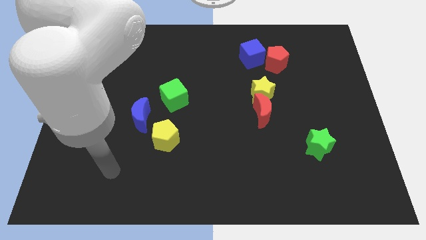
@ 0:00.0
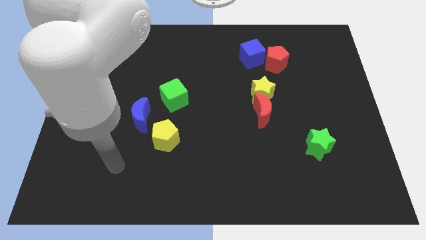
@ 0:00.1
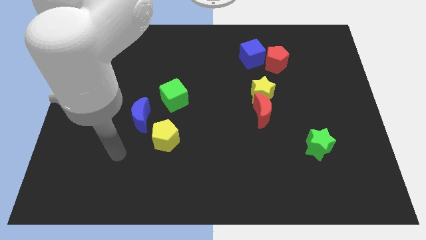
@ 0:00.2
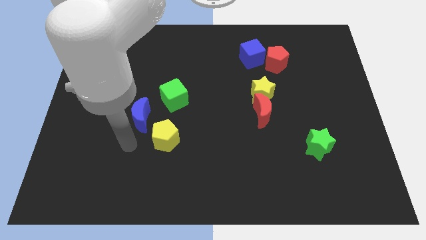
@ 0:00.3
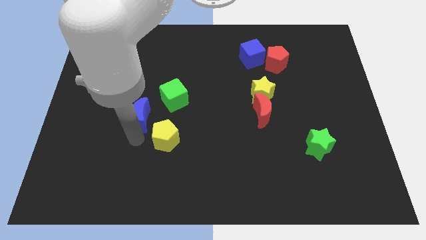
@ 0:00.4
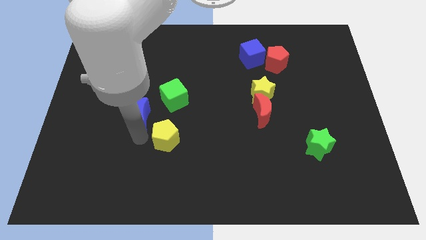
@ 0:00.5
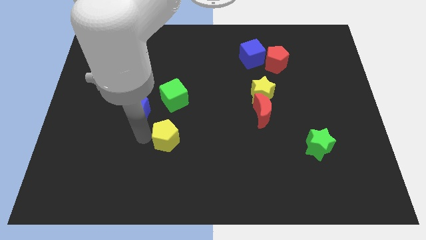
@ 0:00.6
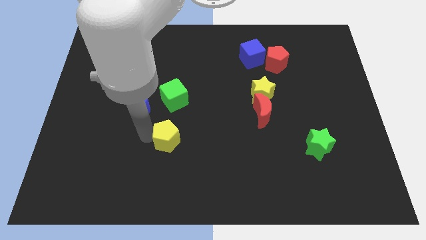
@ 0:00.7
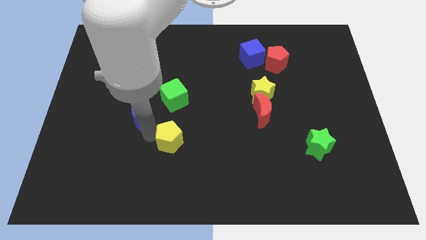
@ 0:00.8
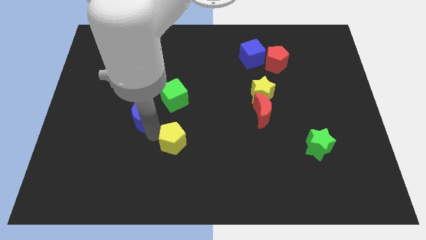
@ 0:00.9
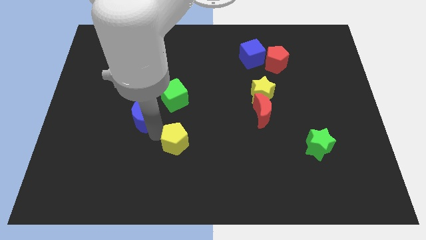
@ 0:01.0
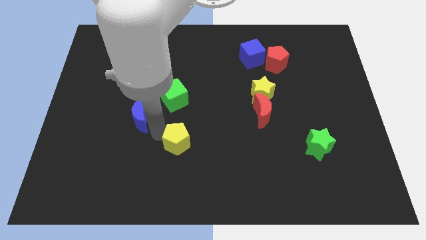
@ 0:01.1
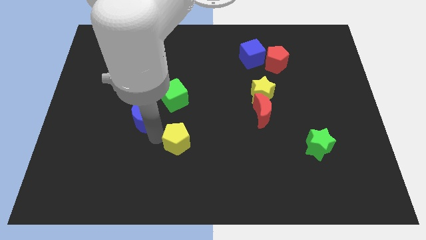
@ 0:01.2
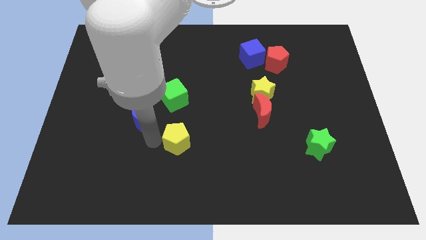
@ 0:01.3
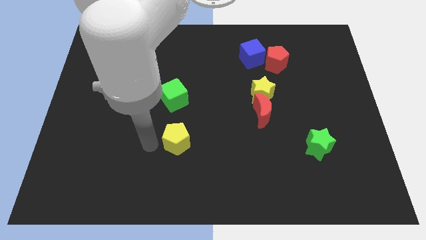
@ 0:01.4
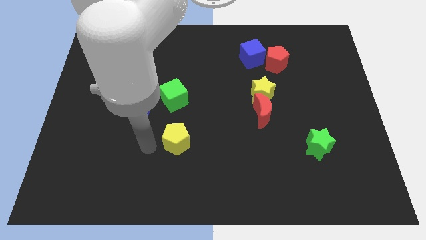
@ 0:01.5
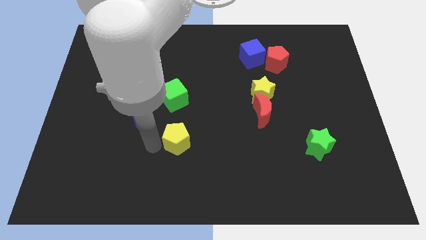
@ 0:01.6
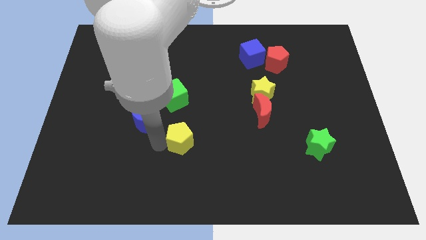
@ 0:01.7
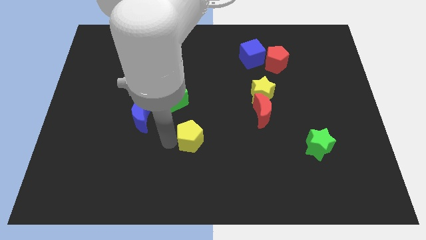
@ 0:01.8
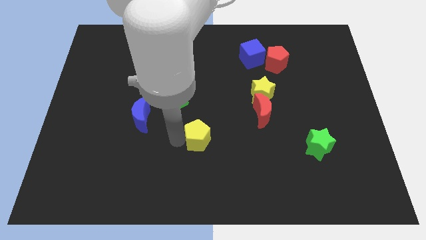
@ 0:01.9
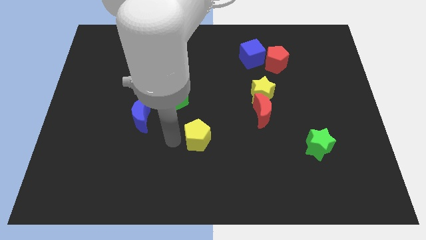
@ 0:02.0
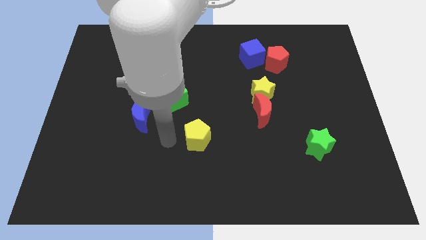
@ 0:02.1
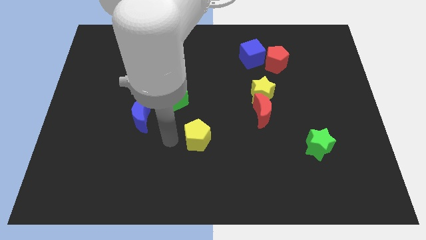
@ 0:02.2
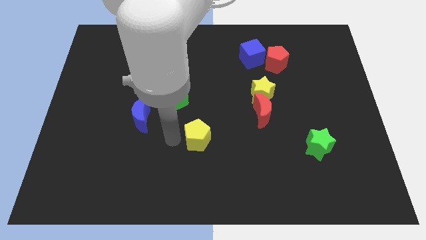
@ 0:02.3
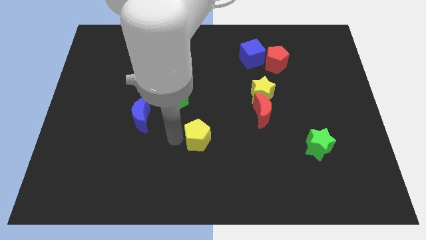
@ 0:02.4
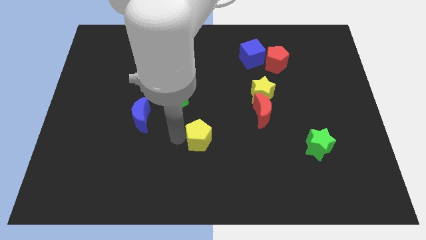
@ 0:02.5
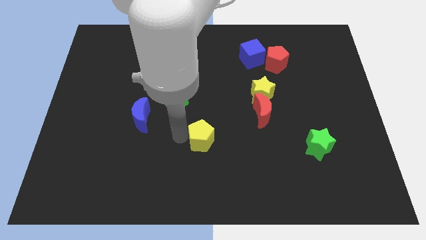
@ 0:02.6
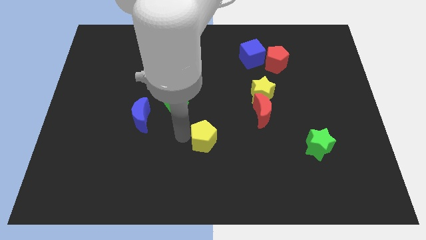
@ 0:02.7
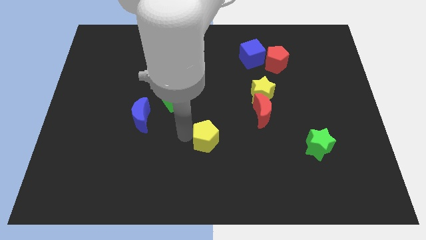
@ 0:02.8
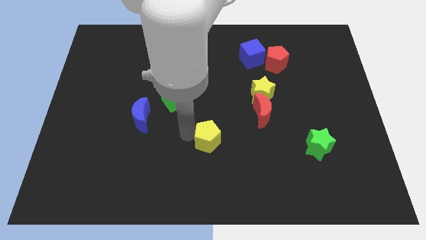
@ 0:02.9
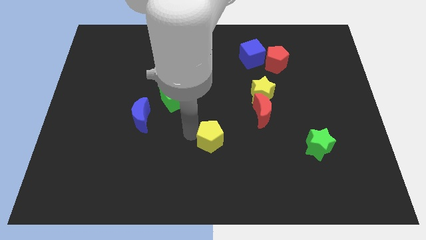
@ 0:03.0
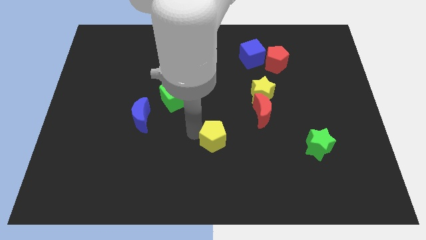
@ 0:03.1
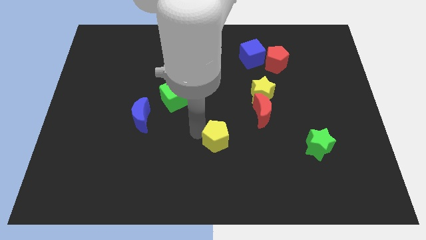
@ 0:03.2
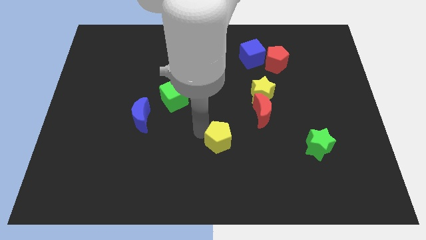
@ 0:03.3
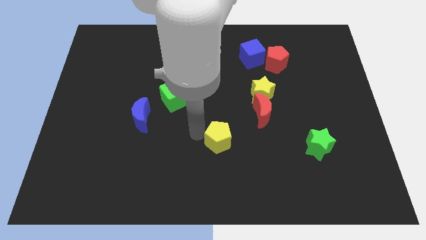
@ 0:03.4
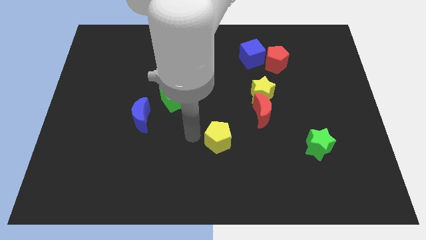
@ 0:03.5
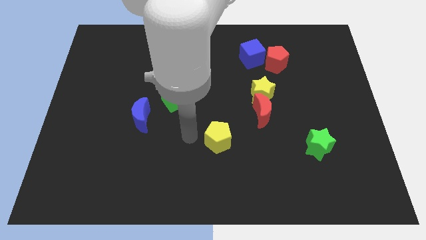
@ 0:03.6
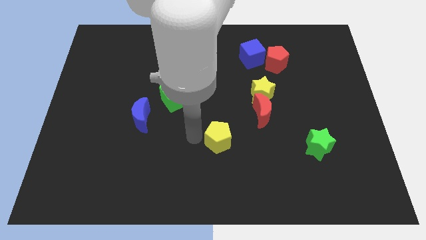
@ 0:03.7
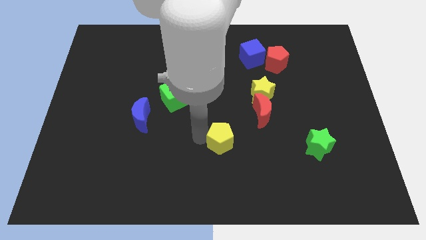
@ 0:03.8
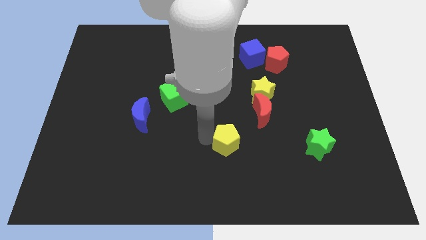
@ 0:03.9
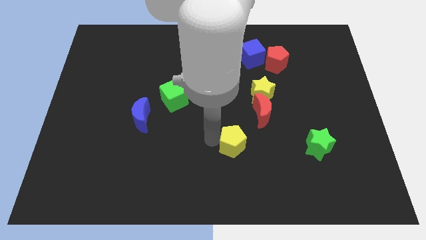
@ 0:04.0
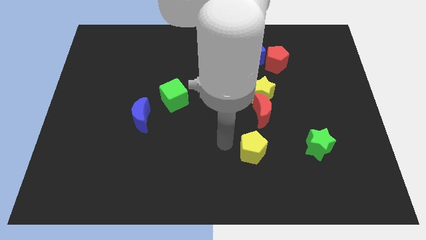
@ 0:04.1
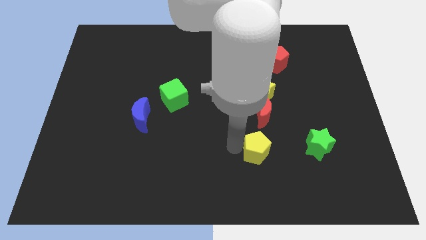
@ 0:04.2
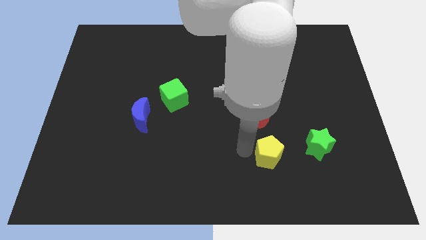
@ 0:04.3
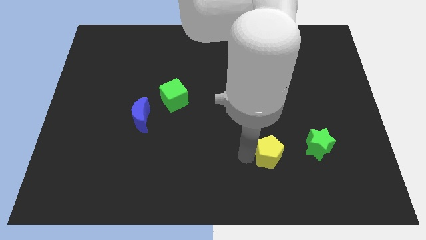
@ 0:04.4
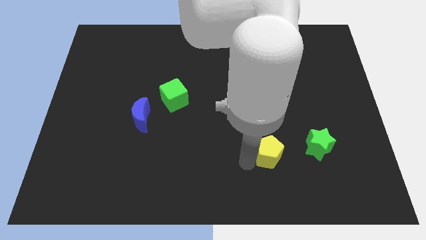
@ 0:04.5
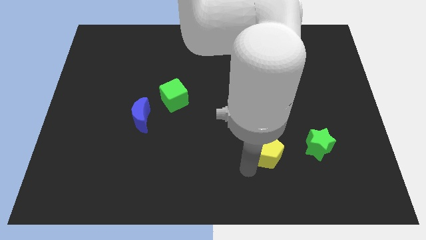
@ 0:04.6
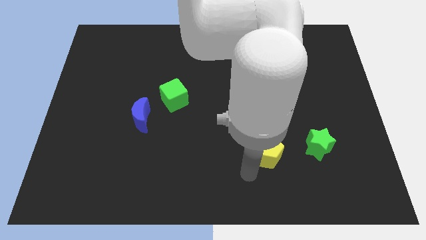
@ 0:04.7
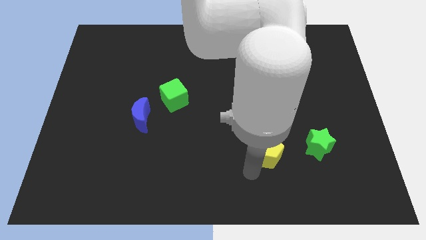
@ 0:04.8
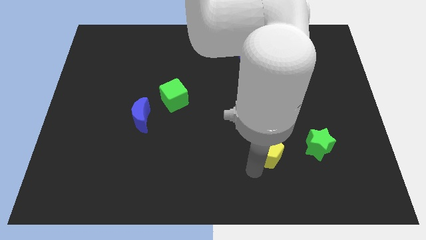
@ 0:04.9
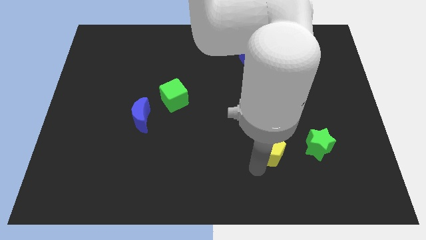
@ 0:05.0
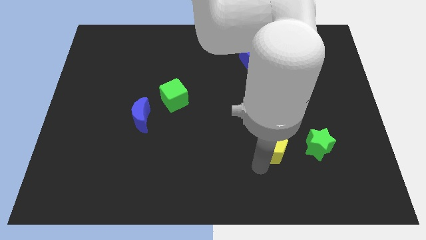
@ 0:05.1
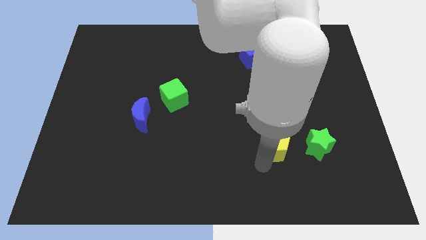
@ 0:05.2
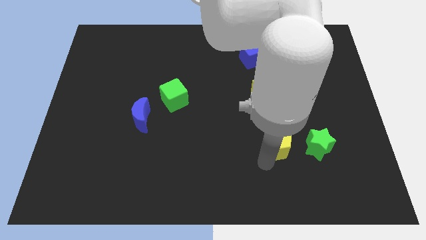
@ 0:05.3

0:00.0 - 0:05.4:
slide the yellow pentagon to the bottom right side of the red moon

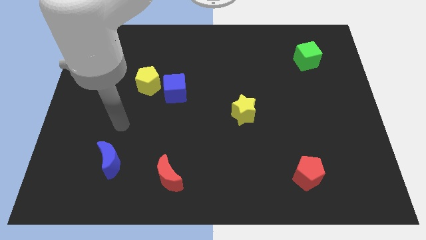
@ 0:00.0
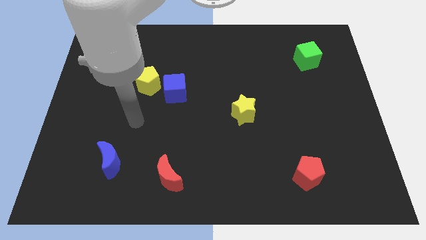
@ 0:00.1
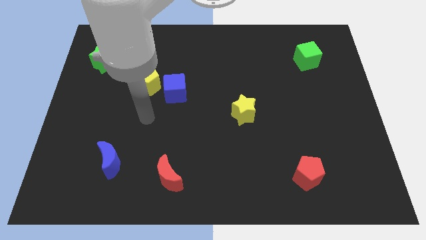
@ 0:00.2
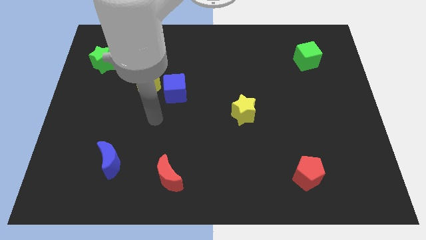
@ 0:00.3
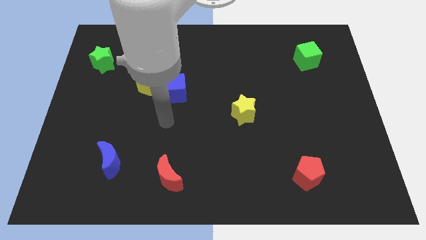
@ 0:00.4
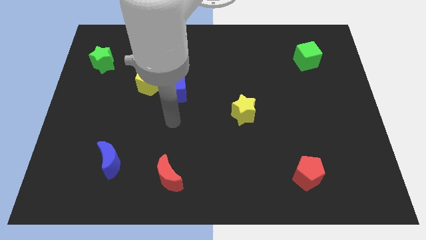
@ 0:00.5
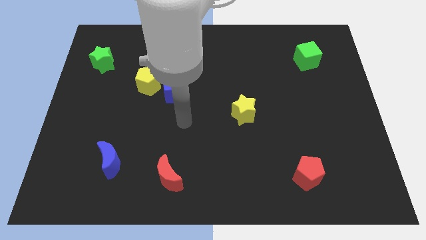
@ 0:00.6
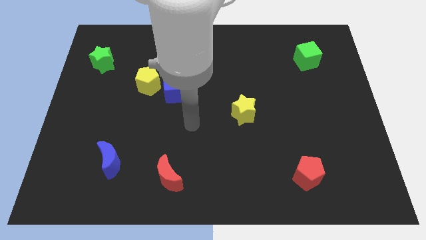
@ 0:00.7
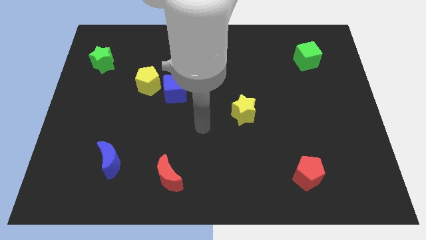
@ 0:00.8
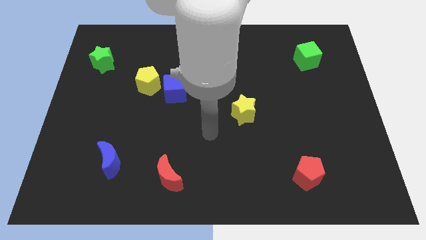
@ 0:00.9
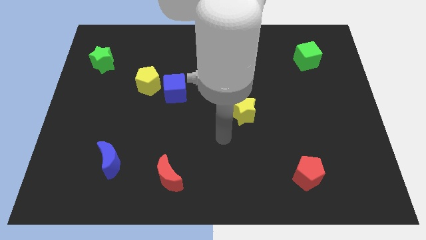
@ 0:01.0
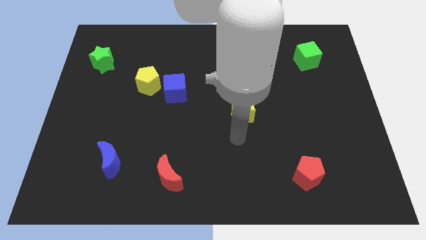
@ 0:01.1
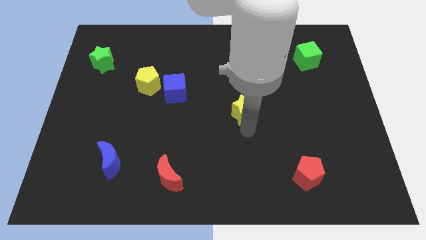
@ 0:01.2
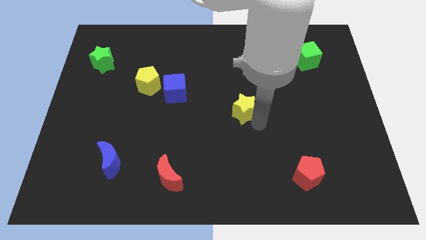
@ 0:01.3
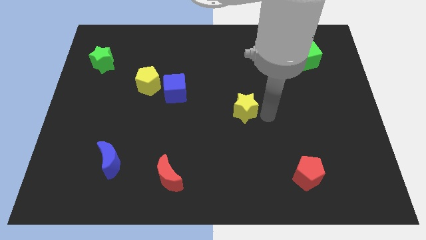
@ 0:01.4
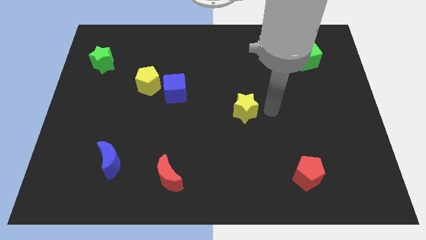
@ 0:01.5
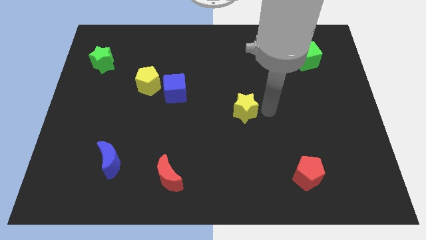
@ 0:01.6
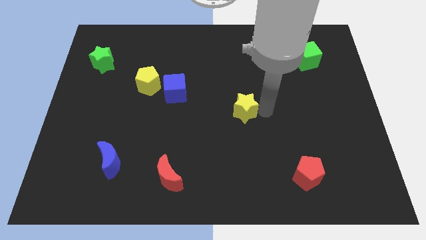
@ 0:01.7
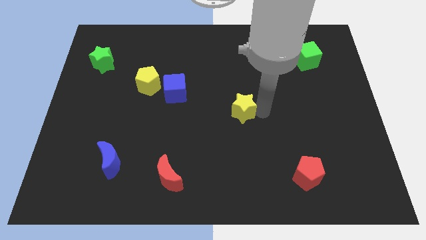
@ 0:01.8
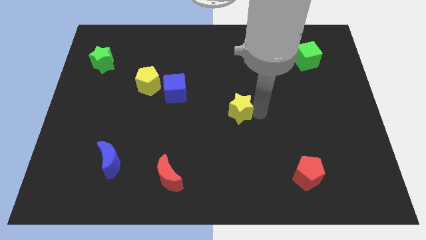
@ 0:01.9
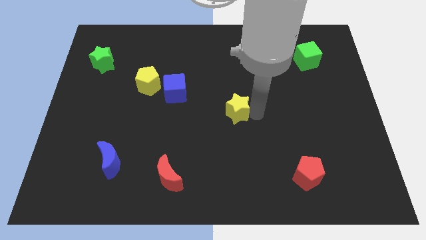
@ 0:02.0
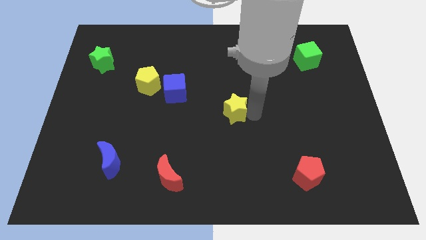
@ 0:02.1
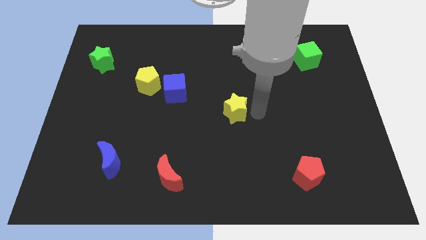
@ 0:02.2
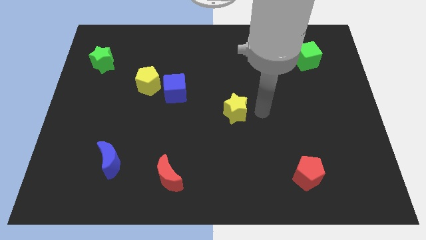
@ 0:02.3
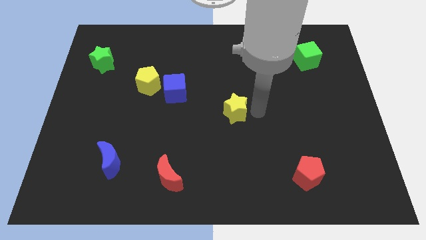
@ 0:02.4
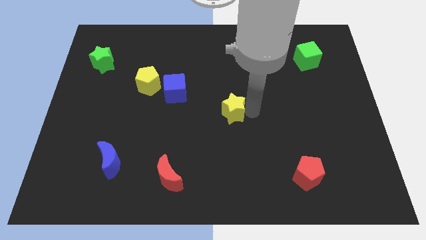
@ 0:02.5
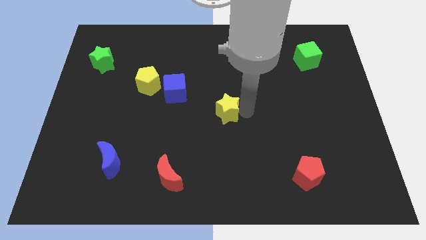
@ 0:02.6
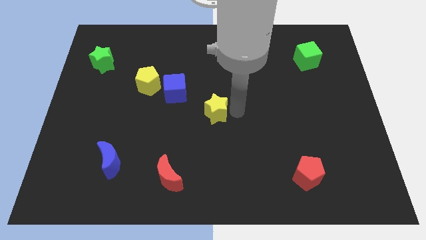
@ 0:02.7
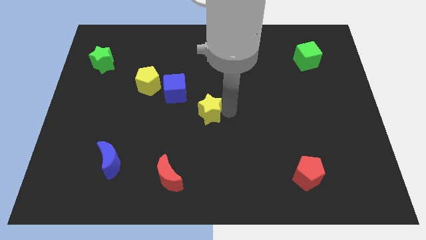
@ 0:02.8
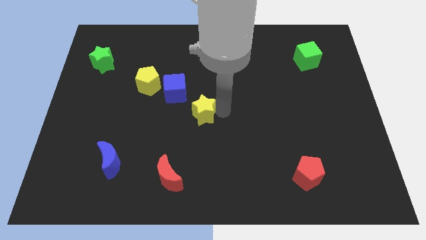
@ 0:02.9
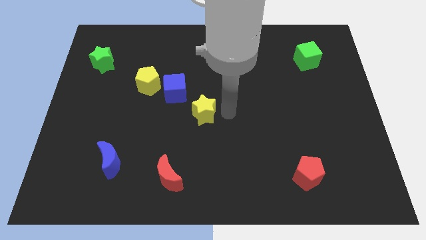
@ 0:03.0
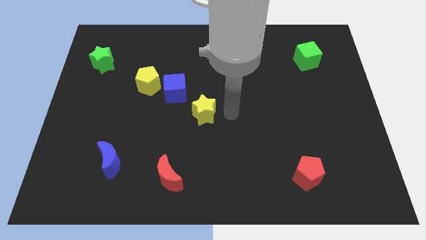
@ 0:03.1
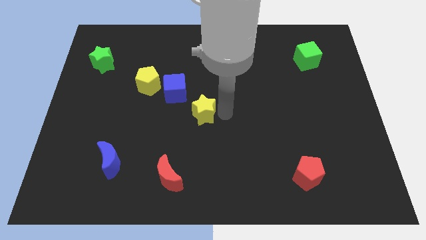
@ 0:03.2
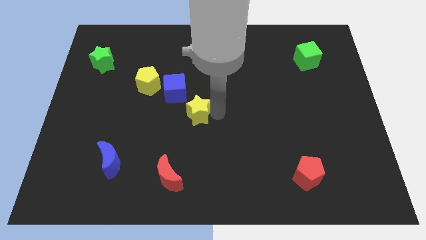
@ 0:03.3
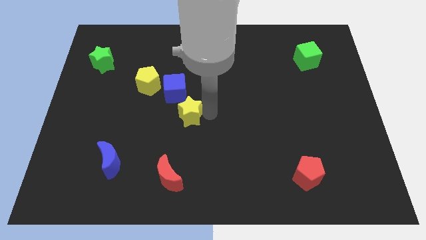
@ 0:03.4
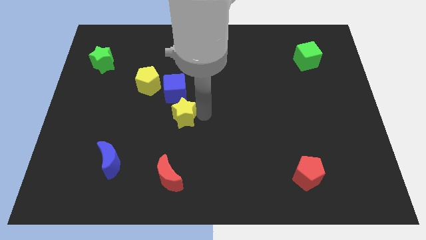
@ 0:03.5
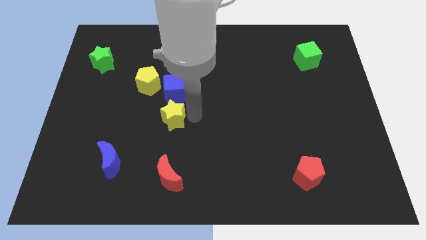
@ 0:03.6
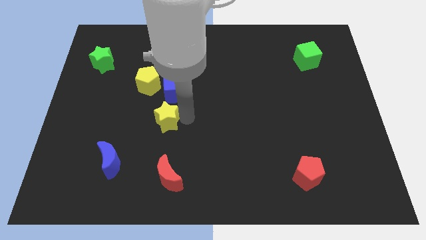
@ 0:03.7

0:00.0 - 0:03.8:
push the yellow star to the bottom left of the blue cube
